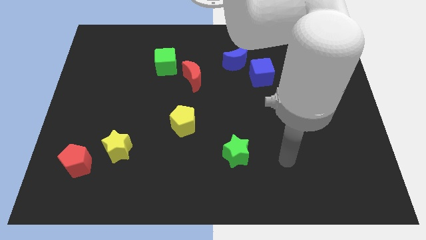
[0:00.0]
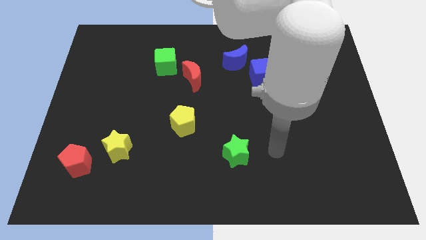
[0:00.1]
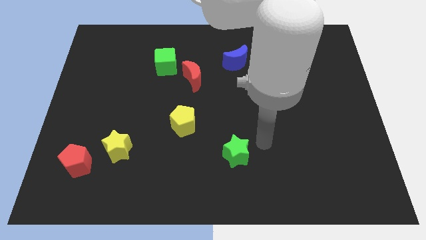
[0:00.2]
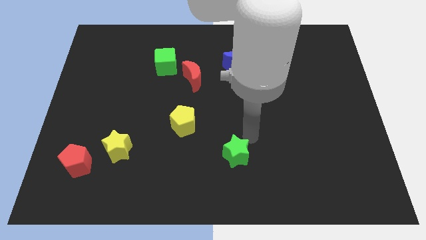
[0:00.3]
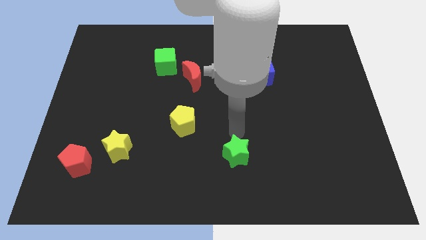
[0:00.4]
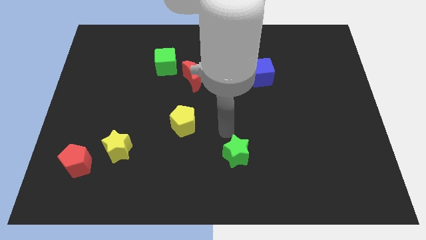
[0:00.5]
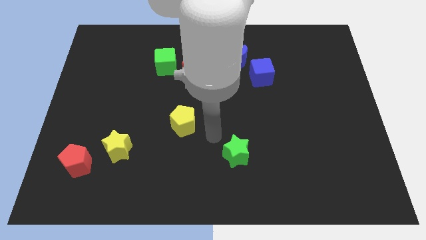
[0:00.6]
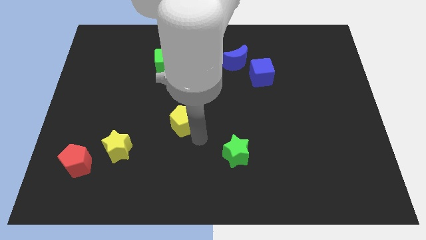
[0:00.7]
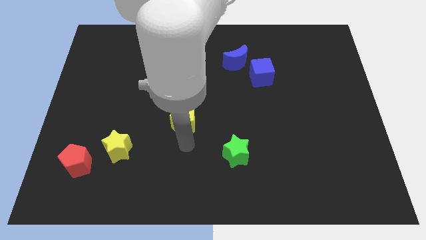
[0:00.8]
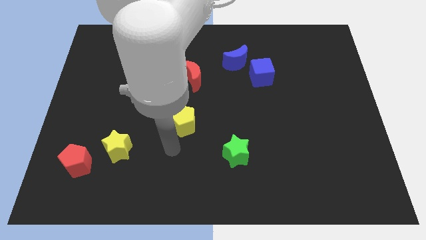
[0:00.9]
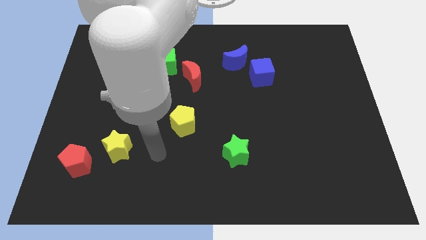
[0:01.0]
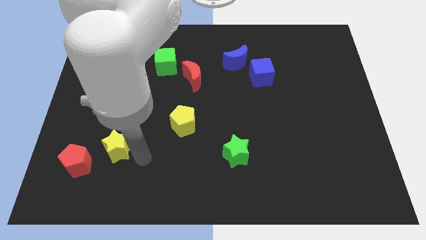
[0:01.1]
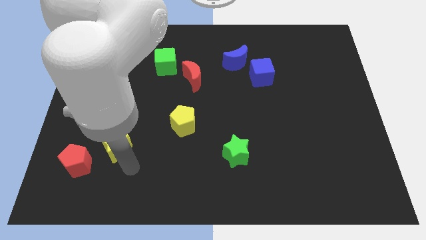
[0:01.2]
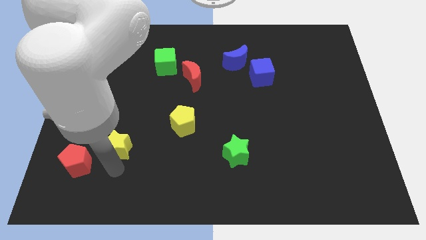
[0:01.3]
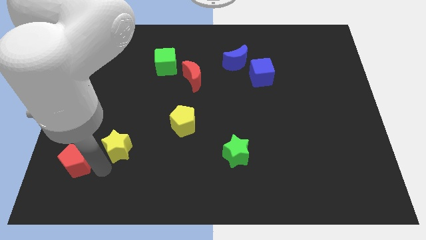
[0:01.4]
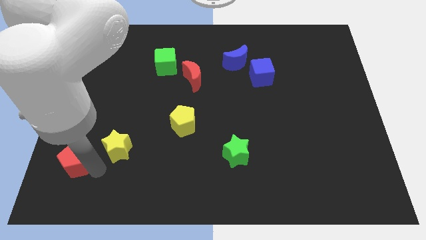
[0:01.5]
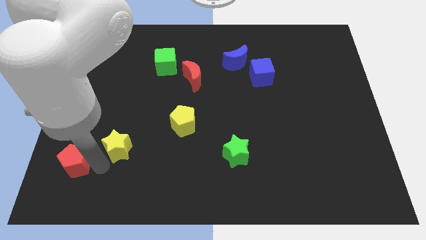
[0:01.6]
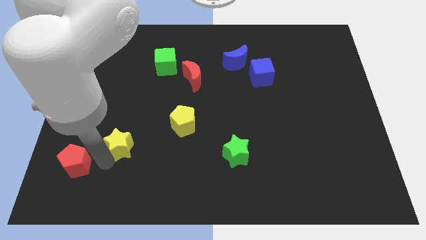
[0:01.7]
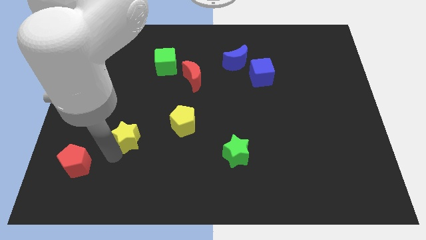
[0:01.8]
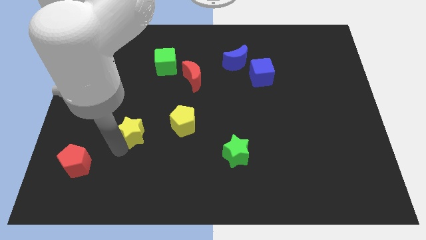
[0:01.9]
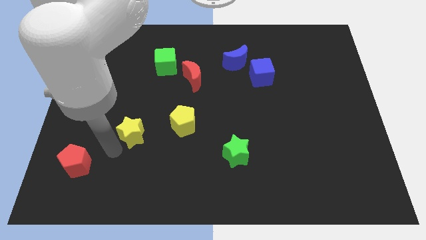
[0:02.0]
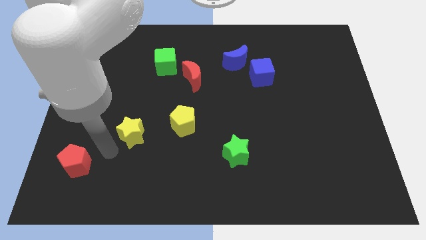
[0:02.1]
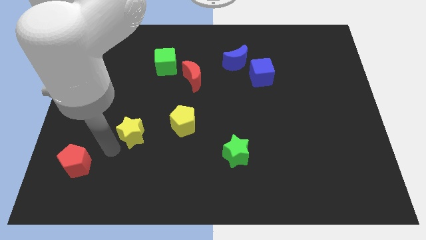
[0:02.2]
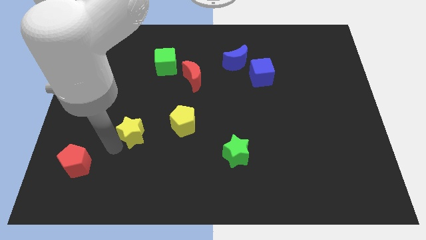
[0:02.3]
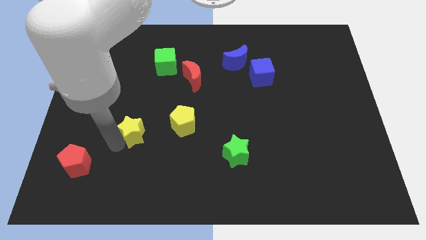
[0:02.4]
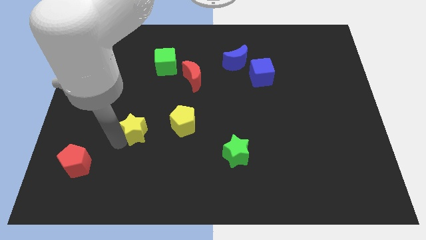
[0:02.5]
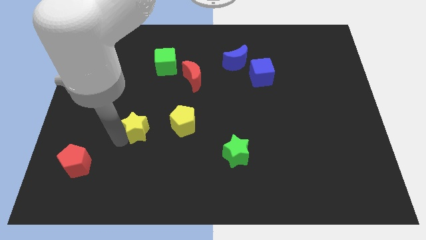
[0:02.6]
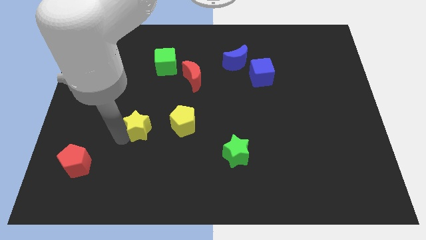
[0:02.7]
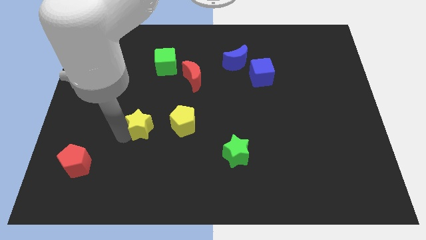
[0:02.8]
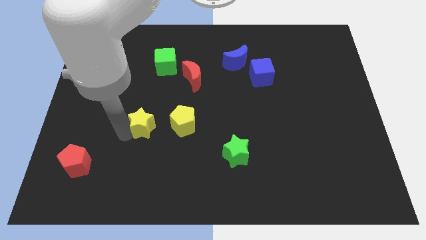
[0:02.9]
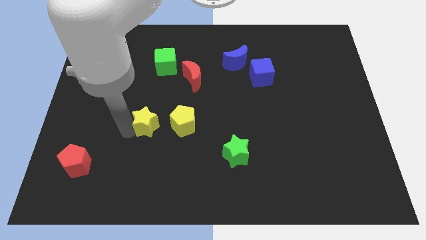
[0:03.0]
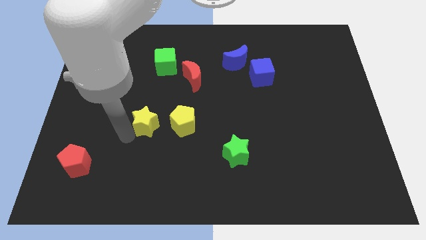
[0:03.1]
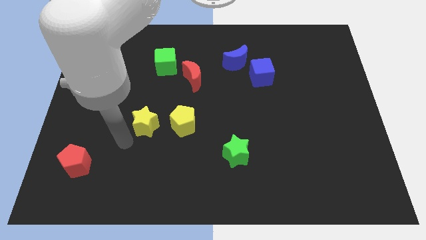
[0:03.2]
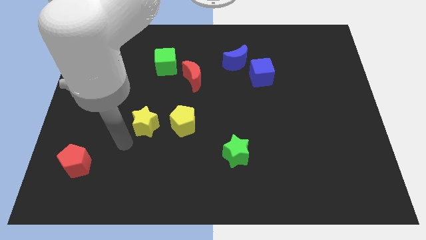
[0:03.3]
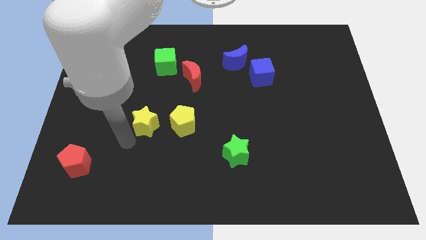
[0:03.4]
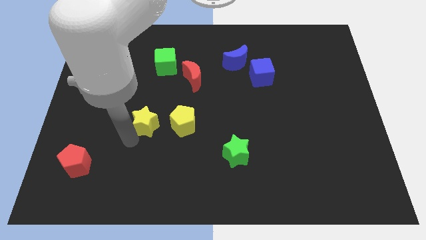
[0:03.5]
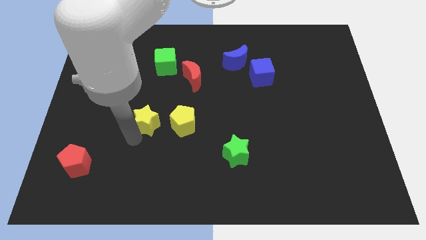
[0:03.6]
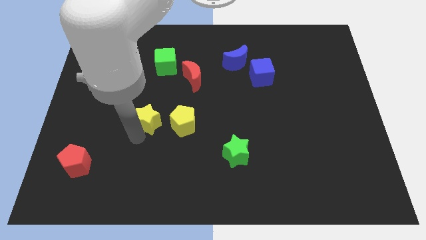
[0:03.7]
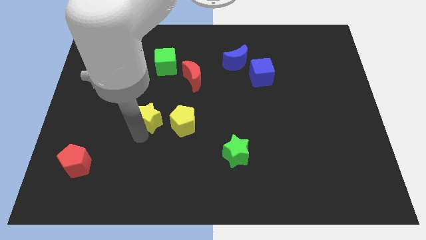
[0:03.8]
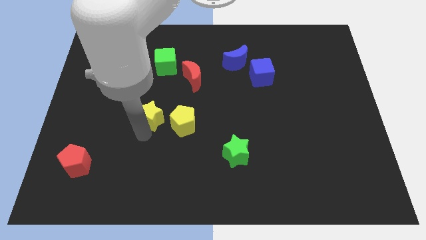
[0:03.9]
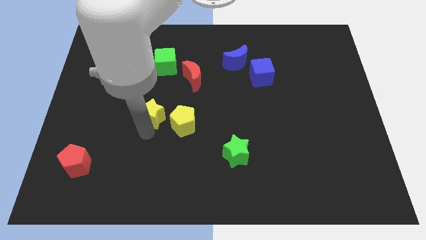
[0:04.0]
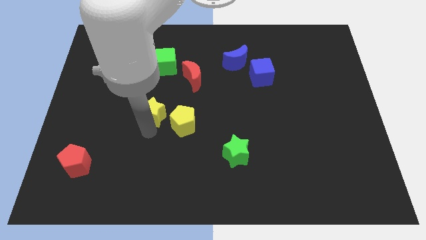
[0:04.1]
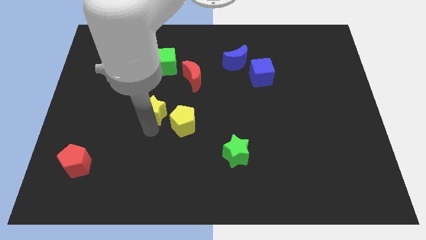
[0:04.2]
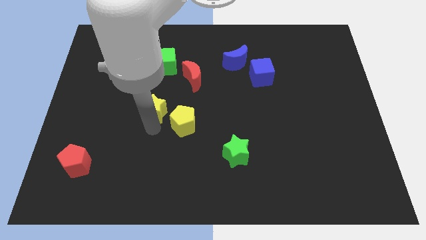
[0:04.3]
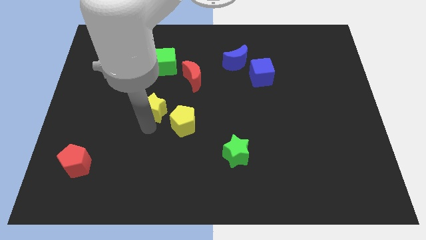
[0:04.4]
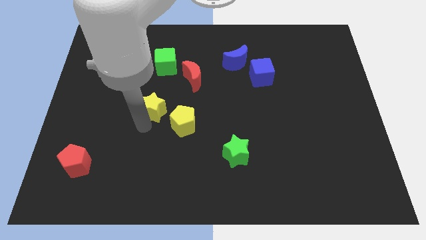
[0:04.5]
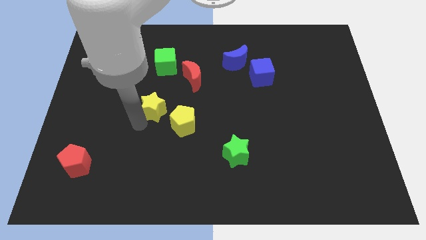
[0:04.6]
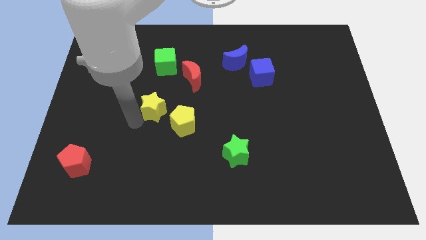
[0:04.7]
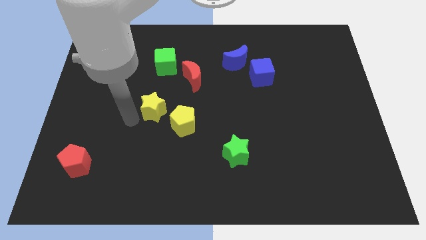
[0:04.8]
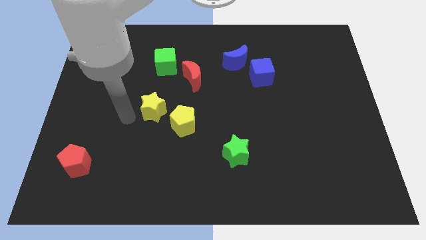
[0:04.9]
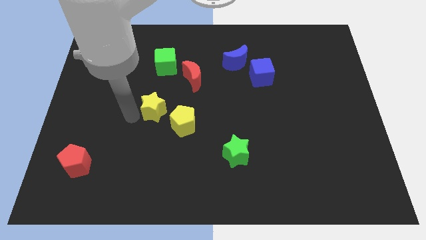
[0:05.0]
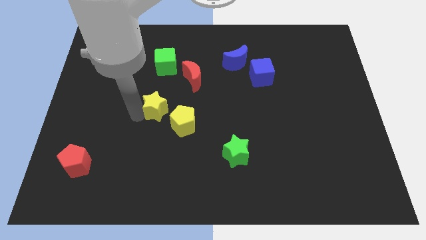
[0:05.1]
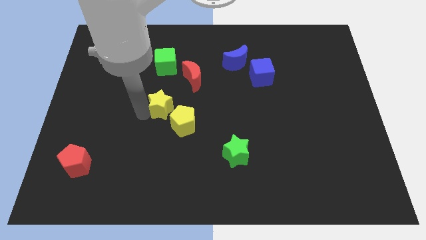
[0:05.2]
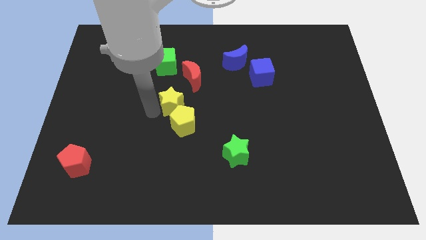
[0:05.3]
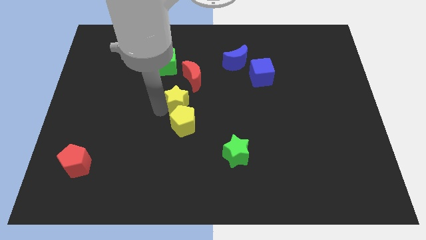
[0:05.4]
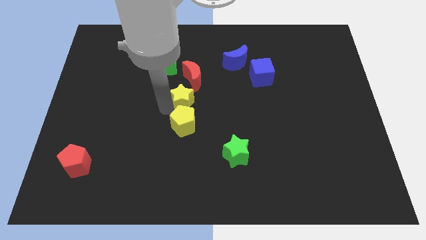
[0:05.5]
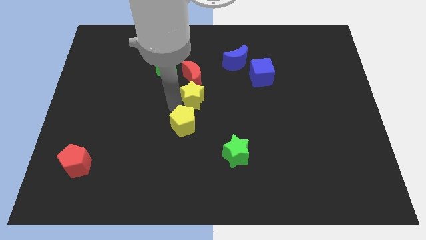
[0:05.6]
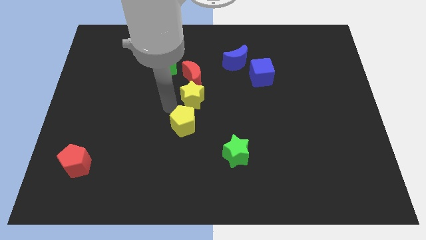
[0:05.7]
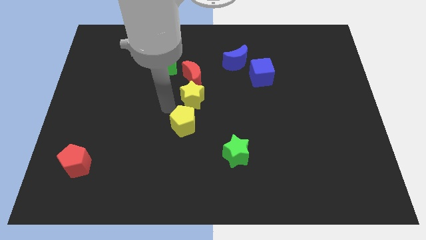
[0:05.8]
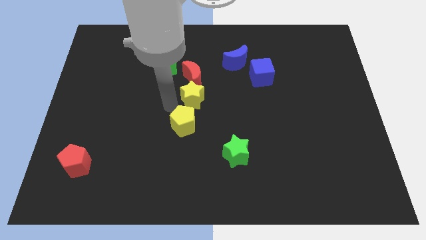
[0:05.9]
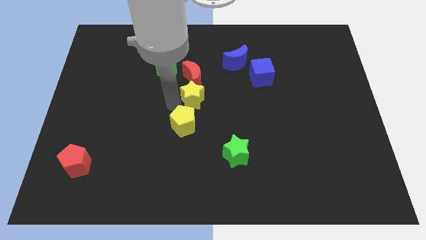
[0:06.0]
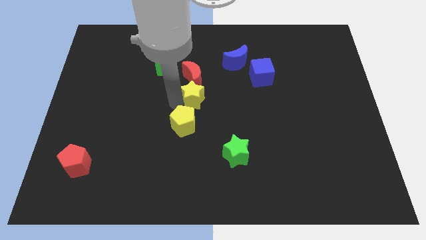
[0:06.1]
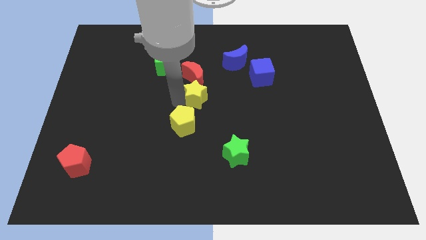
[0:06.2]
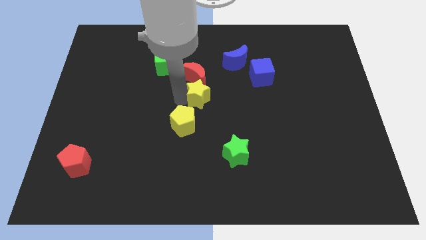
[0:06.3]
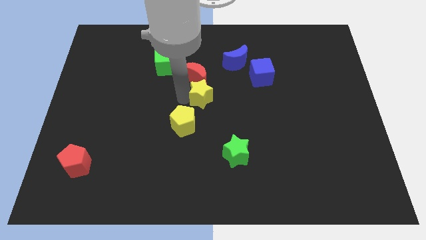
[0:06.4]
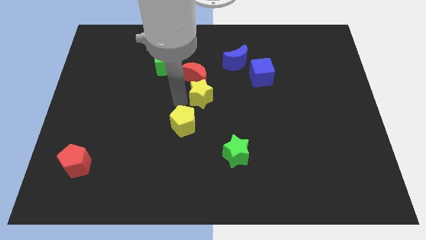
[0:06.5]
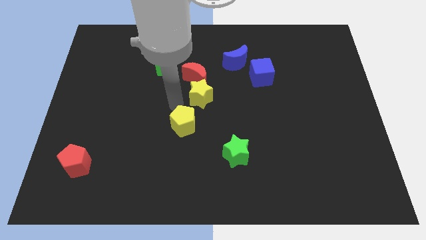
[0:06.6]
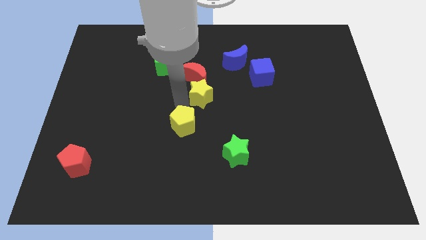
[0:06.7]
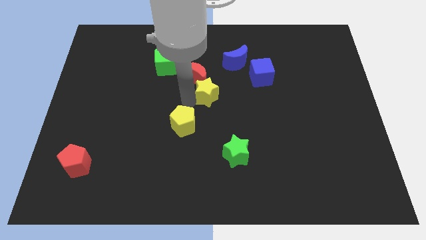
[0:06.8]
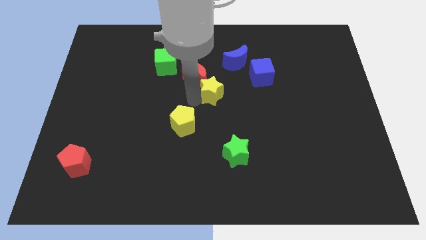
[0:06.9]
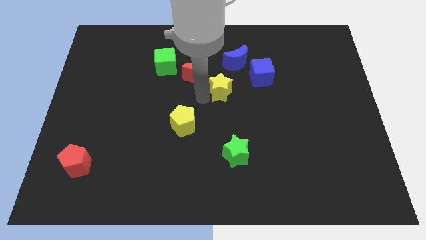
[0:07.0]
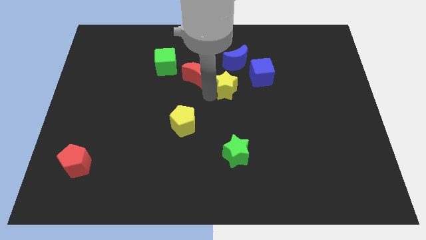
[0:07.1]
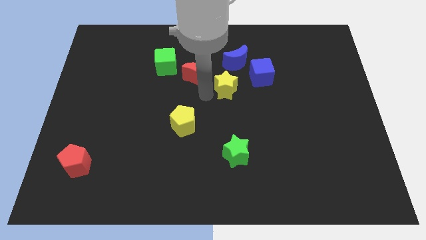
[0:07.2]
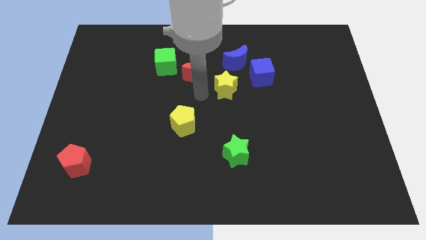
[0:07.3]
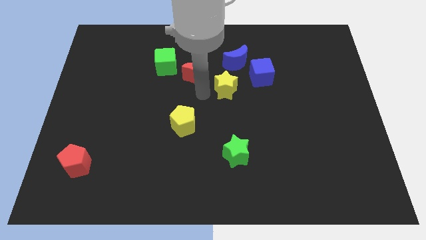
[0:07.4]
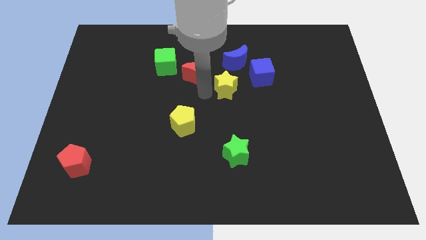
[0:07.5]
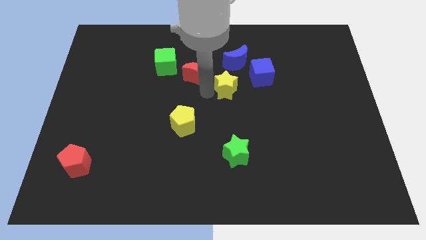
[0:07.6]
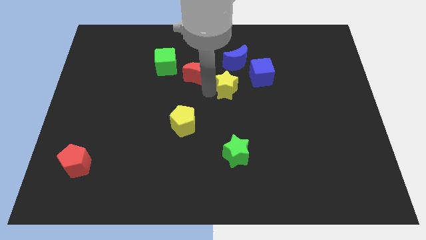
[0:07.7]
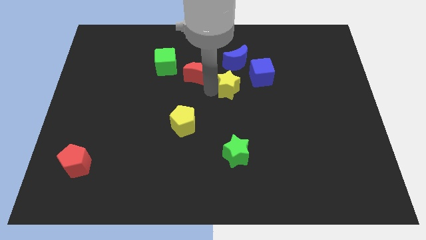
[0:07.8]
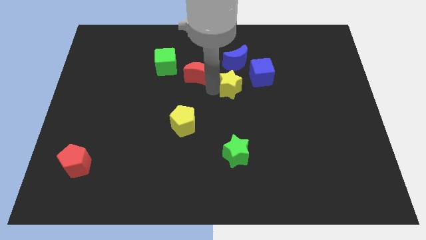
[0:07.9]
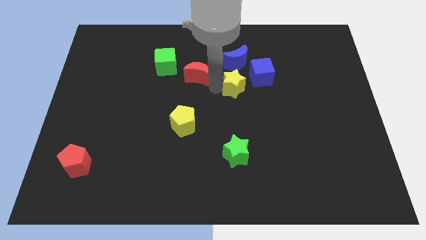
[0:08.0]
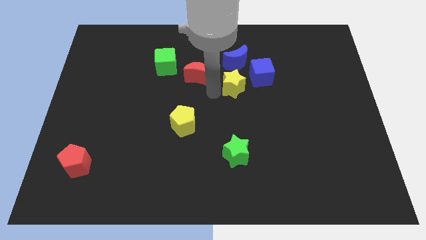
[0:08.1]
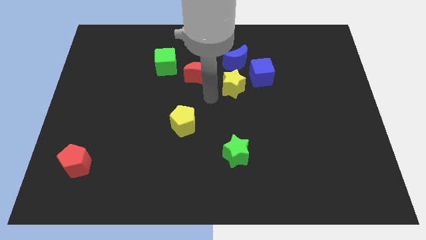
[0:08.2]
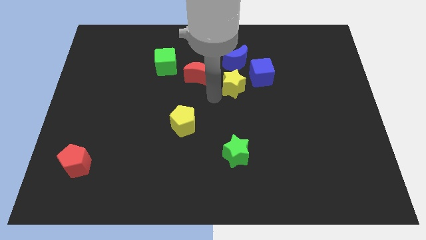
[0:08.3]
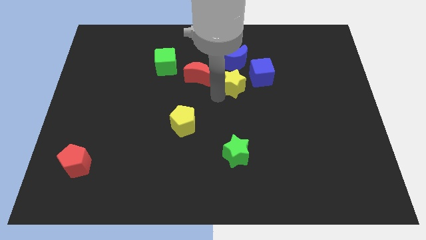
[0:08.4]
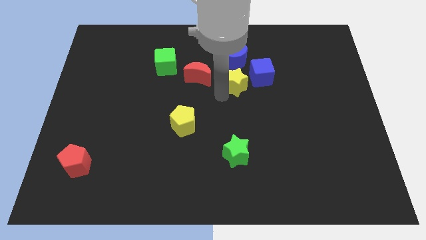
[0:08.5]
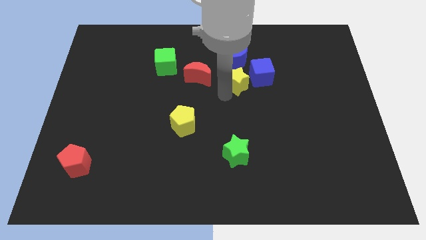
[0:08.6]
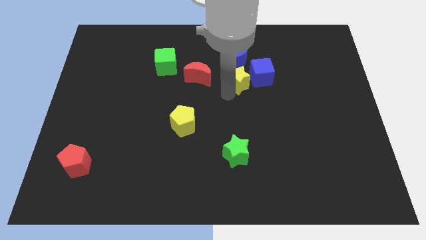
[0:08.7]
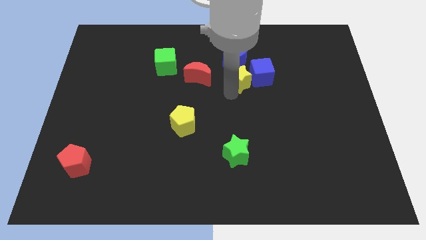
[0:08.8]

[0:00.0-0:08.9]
push the yellow star towards the blue cube
